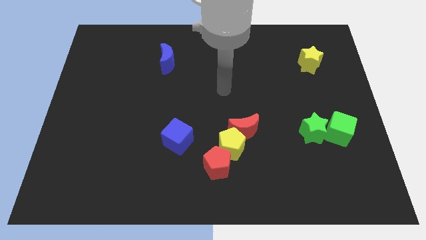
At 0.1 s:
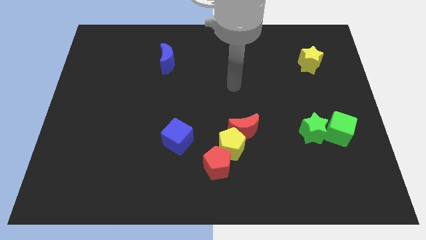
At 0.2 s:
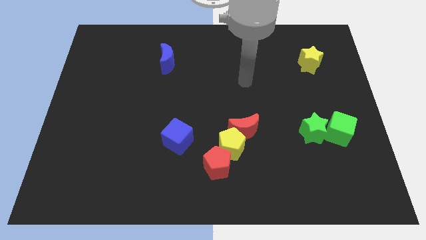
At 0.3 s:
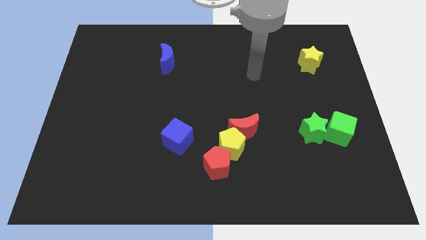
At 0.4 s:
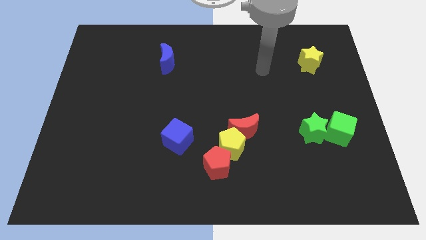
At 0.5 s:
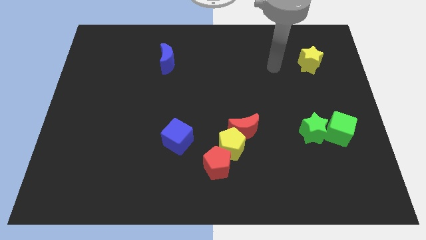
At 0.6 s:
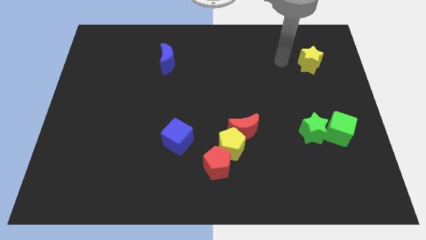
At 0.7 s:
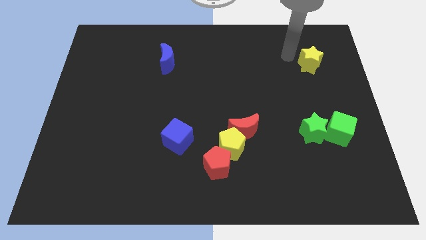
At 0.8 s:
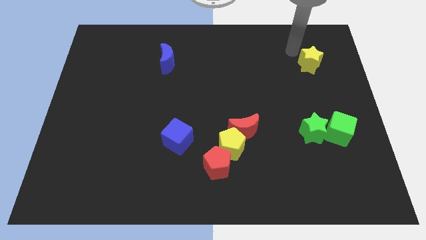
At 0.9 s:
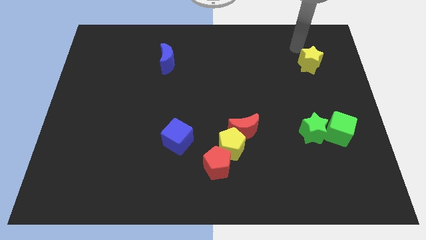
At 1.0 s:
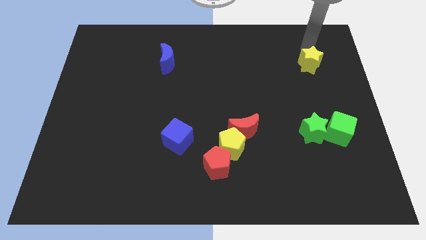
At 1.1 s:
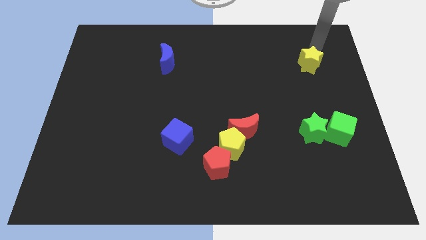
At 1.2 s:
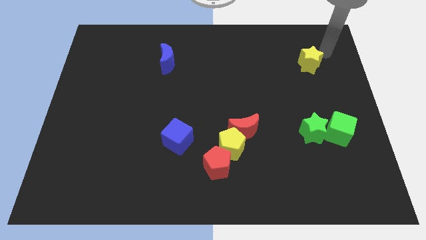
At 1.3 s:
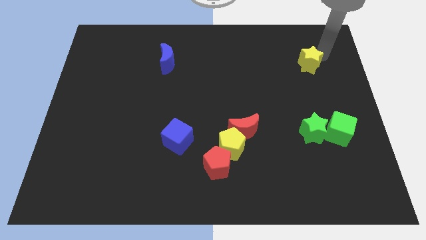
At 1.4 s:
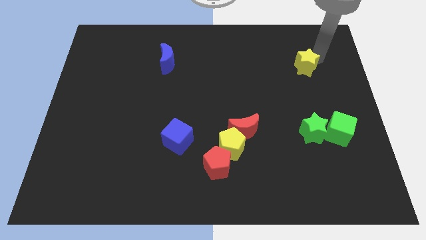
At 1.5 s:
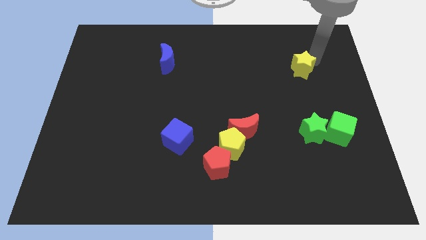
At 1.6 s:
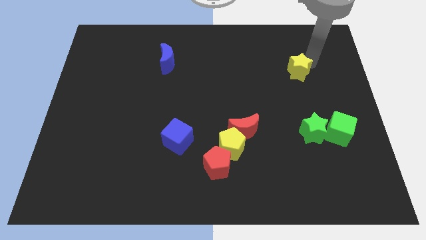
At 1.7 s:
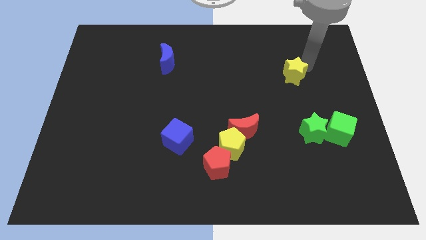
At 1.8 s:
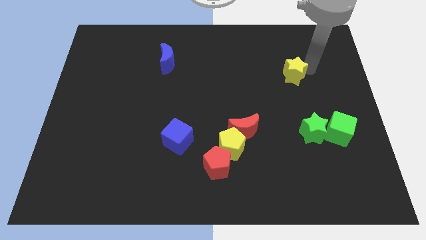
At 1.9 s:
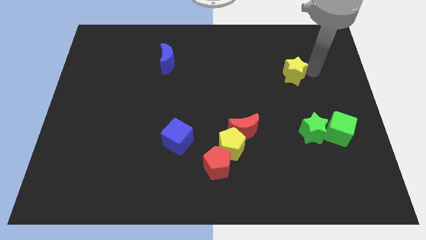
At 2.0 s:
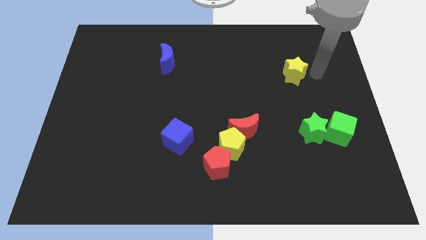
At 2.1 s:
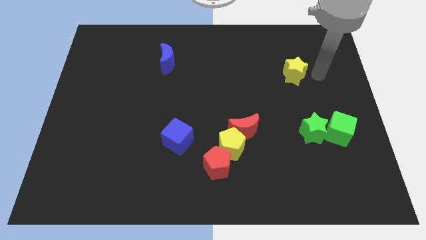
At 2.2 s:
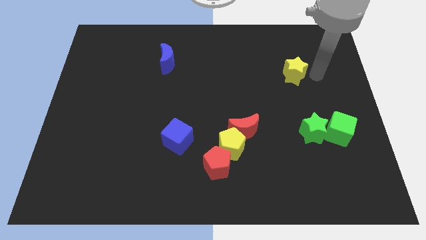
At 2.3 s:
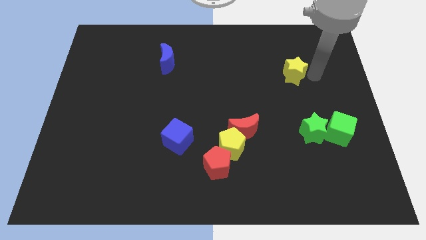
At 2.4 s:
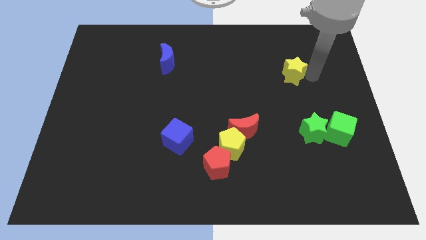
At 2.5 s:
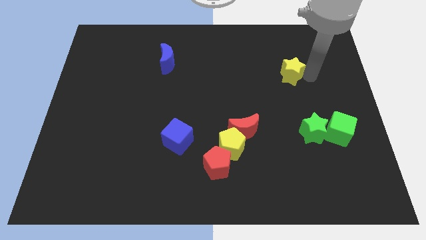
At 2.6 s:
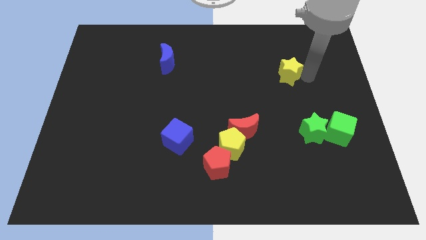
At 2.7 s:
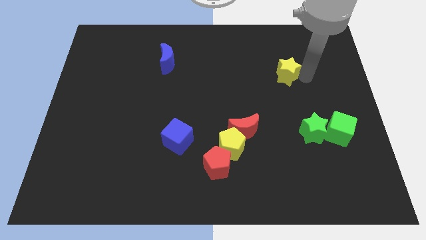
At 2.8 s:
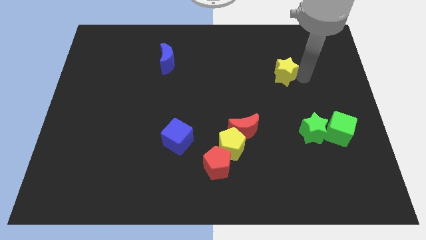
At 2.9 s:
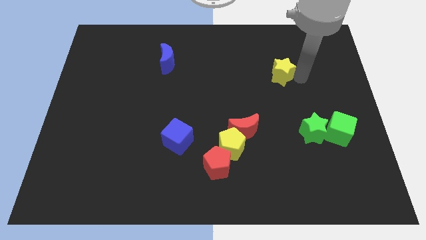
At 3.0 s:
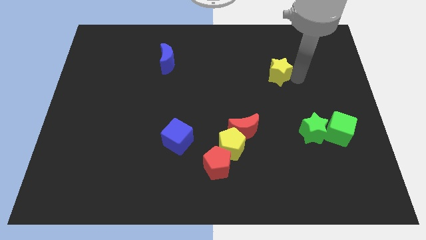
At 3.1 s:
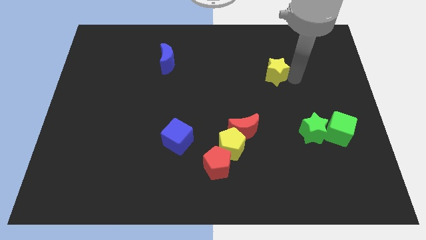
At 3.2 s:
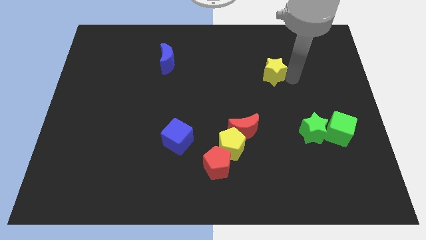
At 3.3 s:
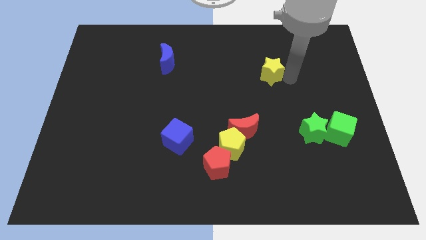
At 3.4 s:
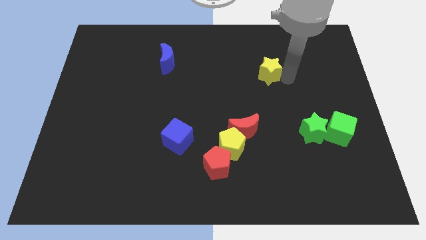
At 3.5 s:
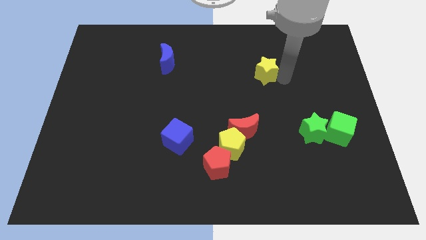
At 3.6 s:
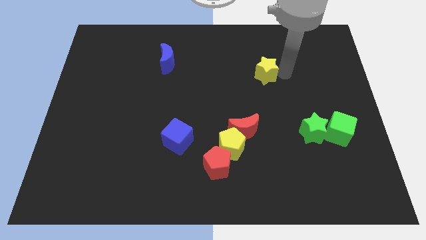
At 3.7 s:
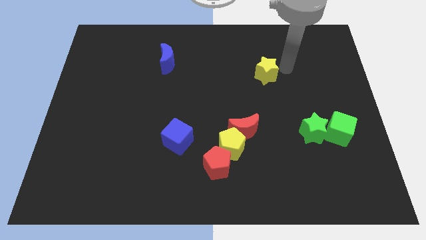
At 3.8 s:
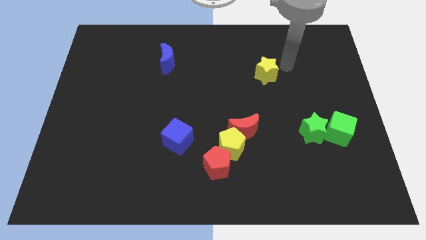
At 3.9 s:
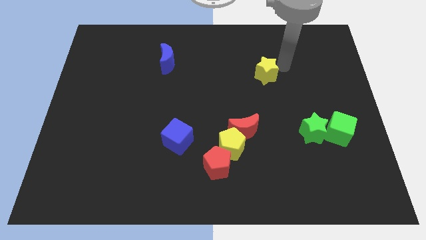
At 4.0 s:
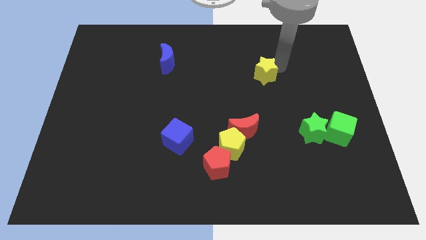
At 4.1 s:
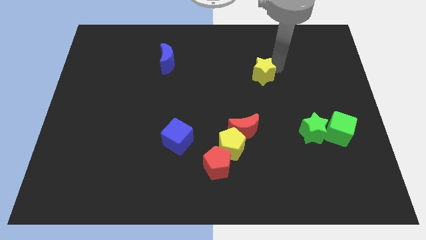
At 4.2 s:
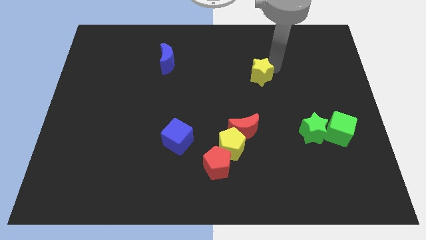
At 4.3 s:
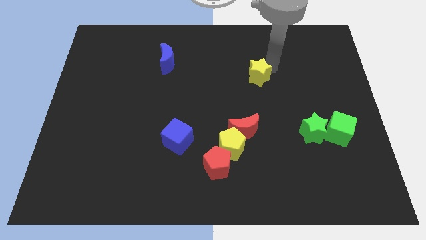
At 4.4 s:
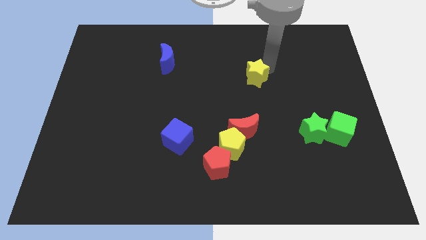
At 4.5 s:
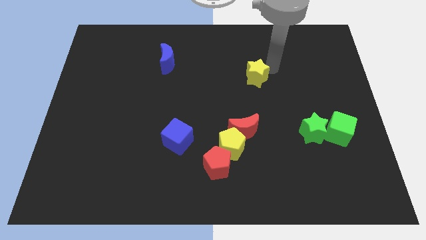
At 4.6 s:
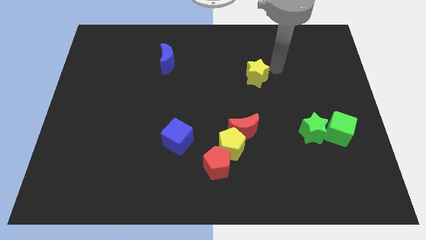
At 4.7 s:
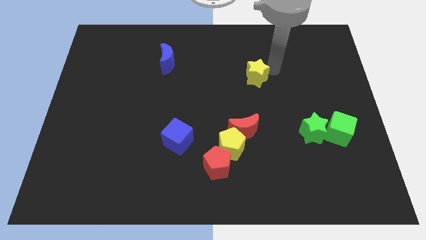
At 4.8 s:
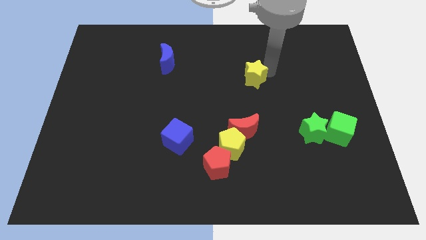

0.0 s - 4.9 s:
move the yellow star to the middle of the board

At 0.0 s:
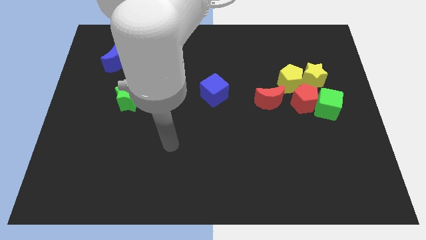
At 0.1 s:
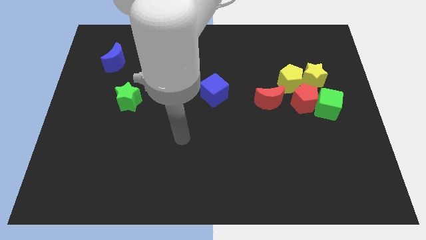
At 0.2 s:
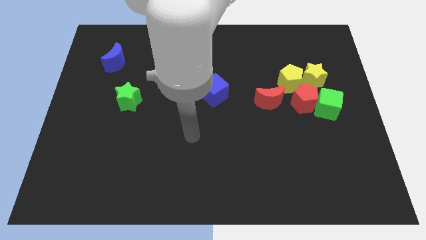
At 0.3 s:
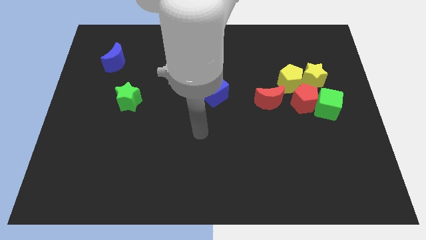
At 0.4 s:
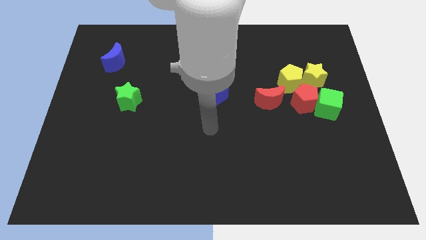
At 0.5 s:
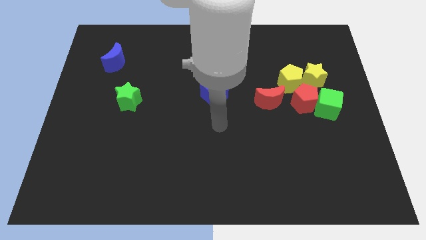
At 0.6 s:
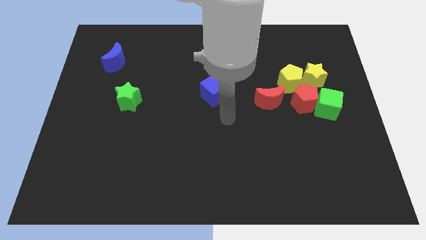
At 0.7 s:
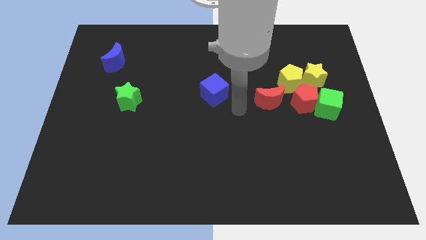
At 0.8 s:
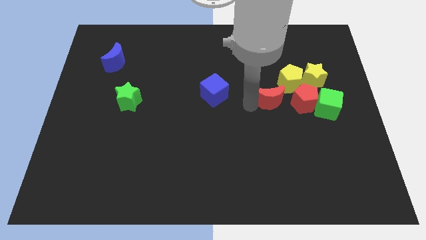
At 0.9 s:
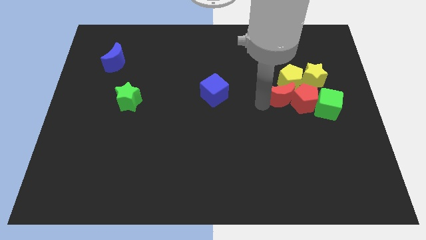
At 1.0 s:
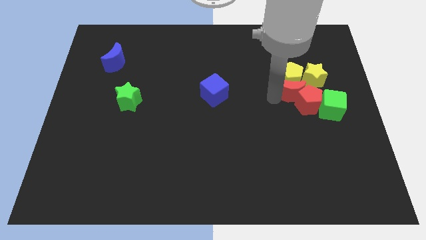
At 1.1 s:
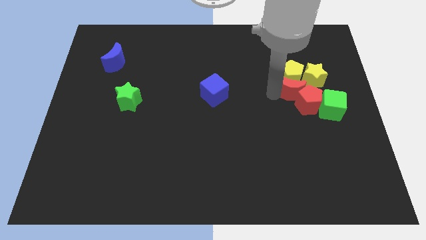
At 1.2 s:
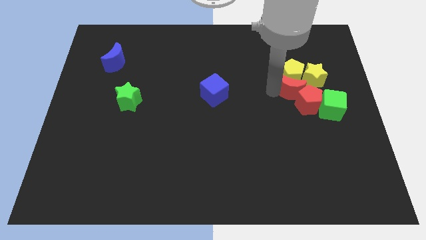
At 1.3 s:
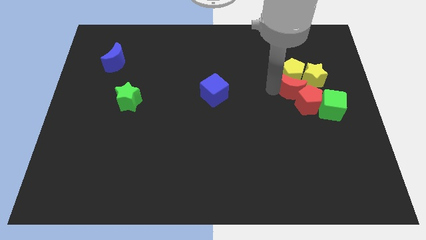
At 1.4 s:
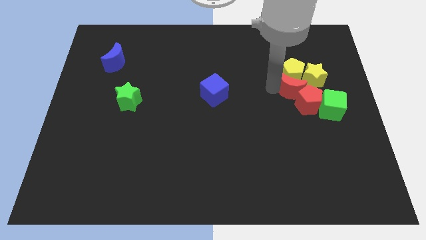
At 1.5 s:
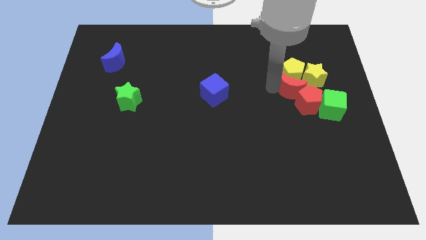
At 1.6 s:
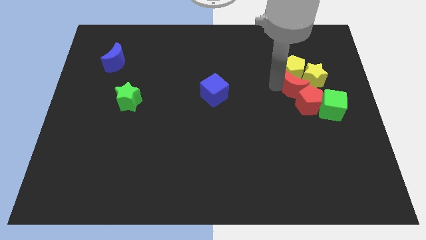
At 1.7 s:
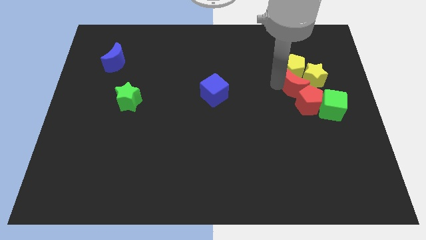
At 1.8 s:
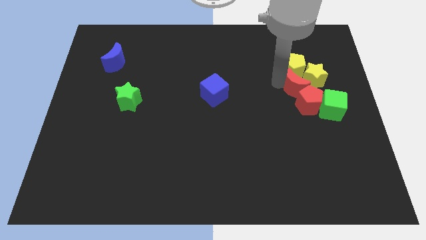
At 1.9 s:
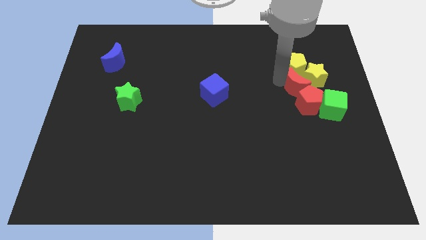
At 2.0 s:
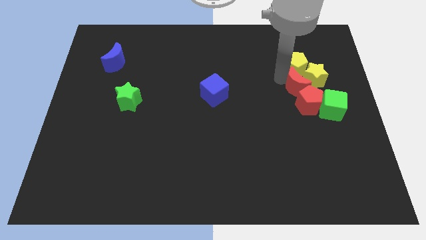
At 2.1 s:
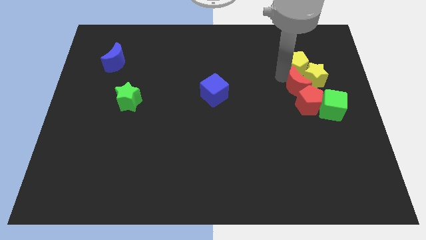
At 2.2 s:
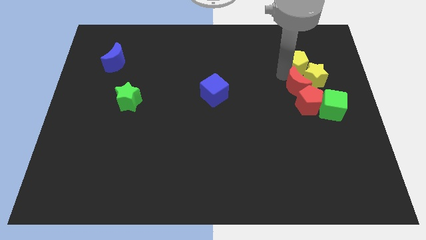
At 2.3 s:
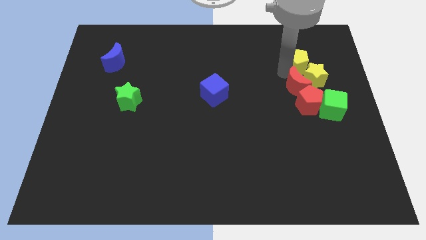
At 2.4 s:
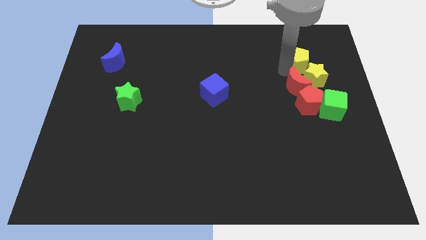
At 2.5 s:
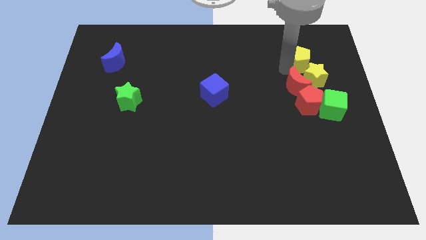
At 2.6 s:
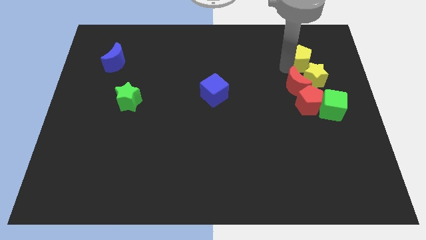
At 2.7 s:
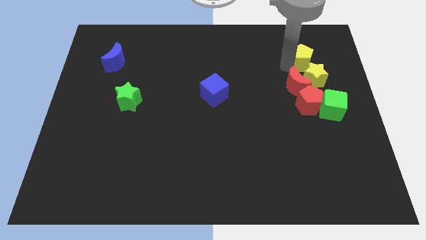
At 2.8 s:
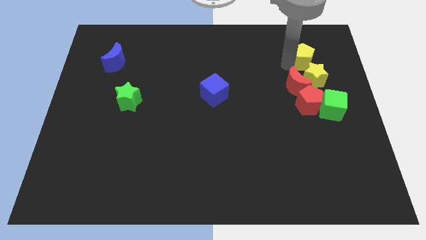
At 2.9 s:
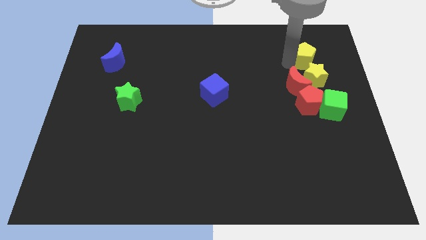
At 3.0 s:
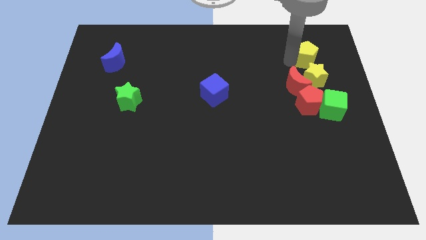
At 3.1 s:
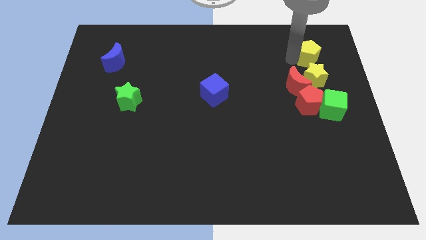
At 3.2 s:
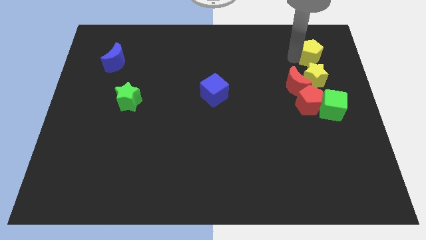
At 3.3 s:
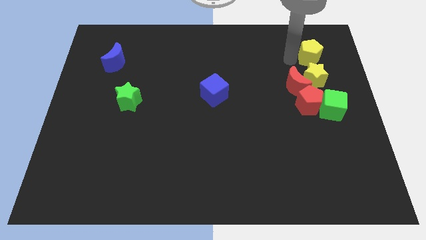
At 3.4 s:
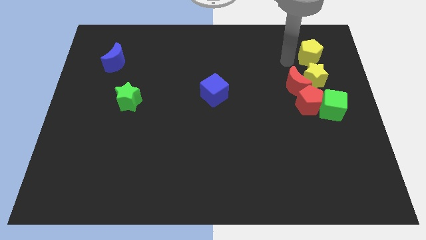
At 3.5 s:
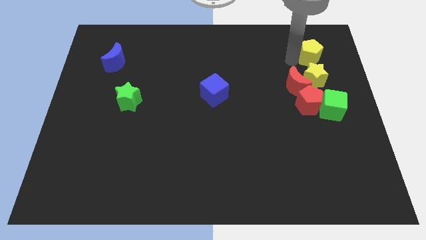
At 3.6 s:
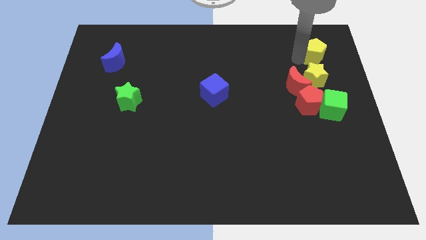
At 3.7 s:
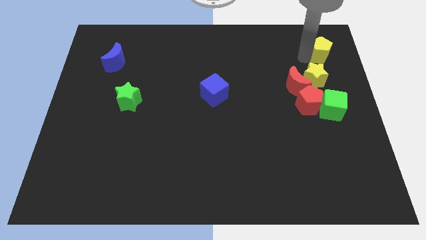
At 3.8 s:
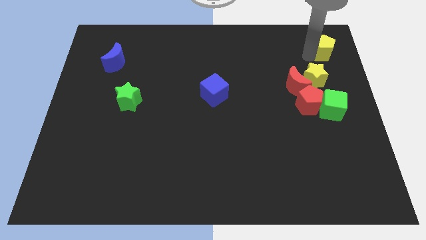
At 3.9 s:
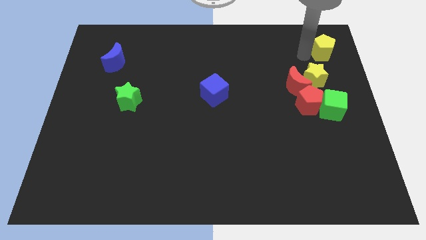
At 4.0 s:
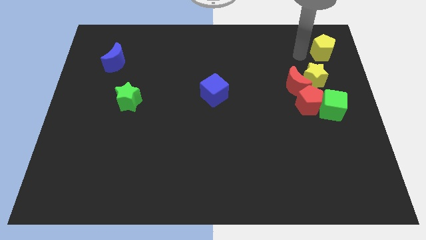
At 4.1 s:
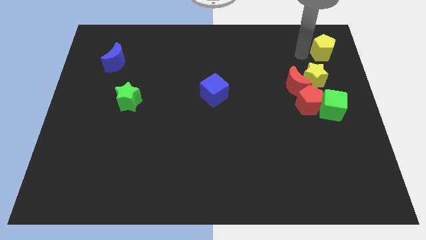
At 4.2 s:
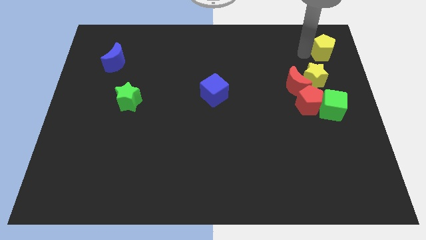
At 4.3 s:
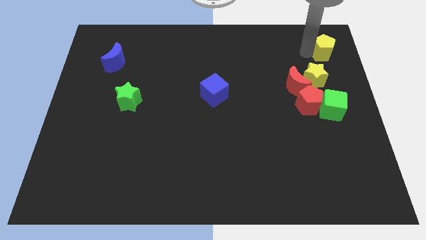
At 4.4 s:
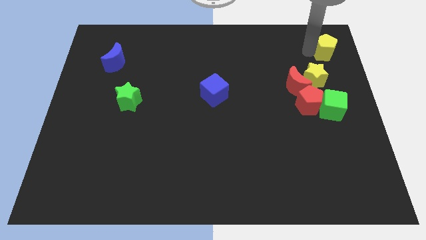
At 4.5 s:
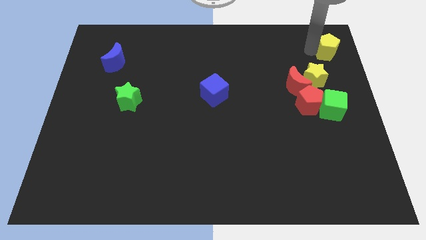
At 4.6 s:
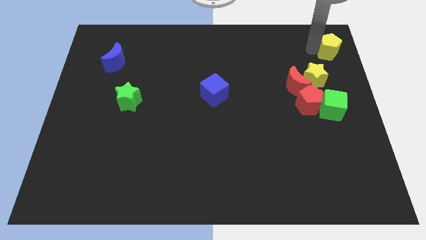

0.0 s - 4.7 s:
move the yellow pentagon to the top right corner
